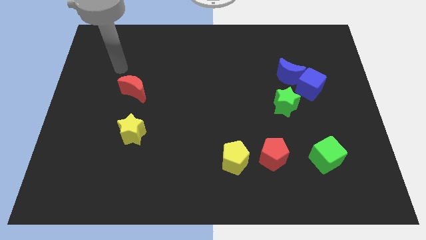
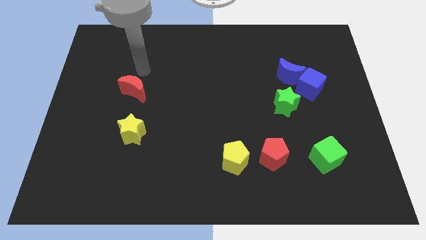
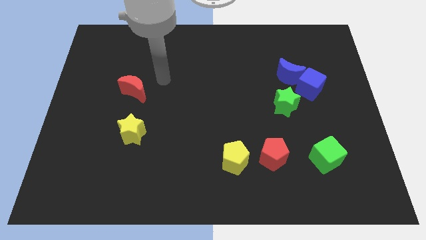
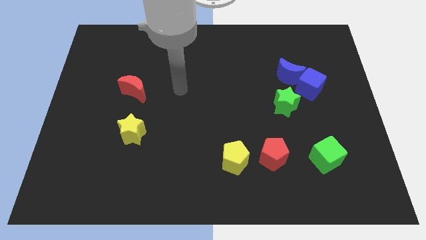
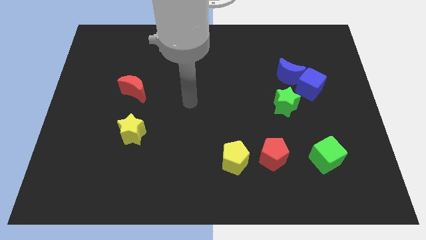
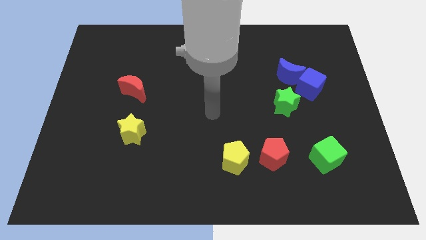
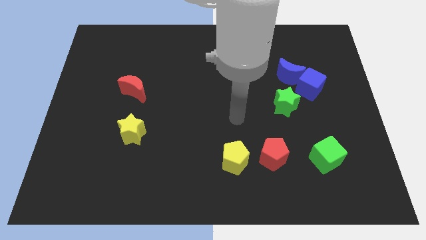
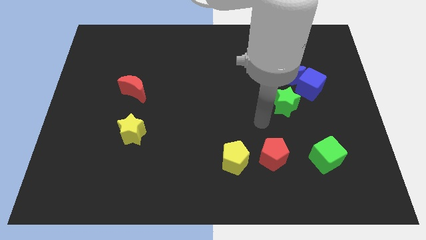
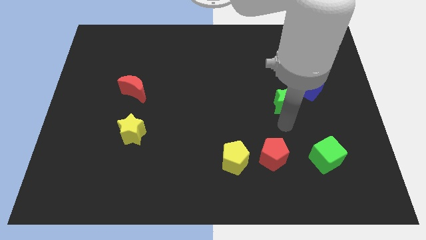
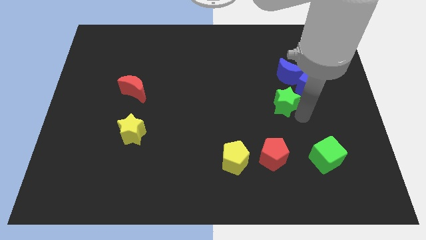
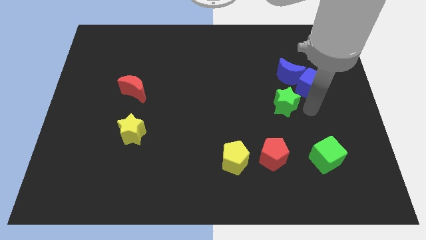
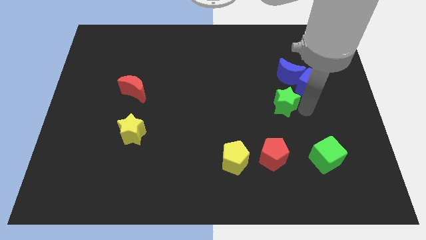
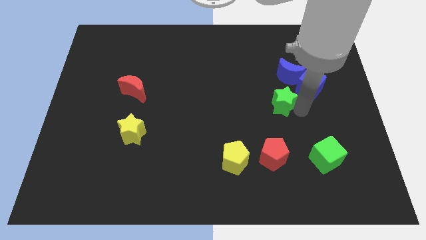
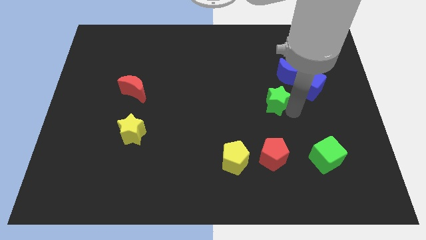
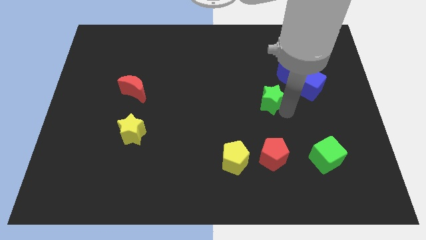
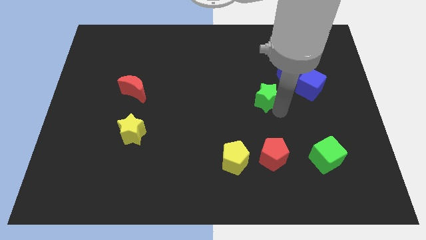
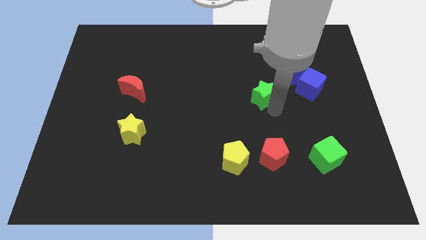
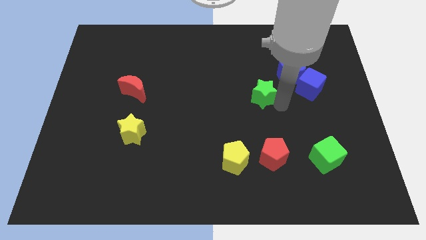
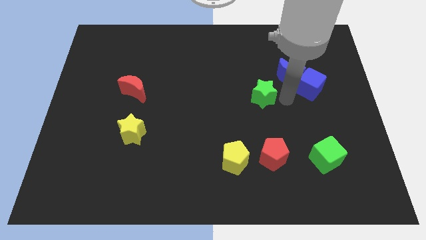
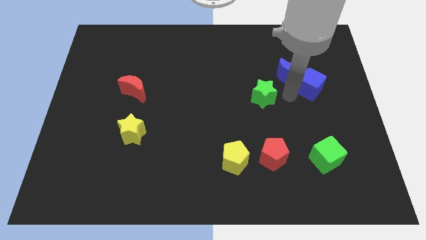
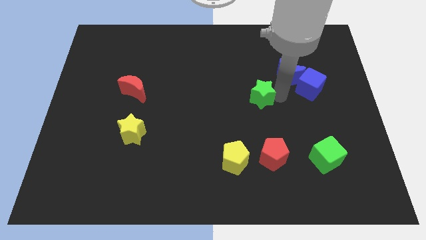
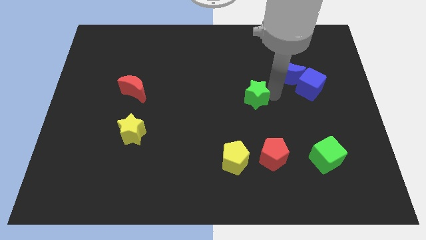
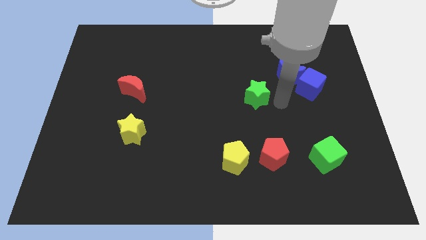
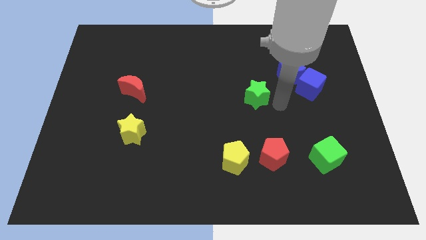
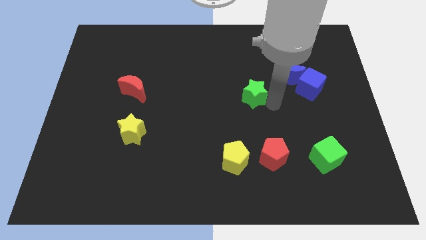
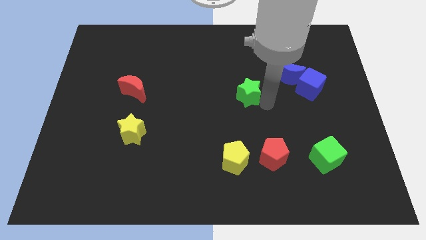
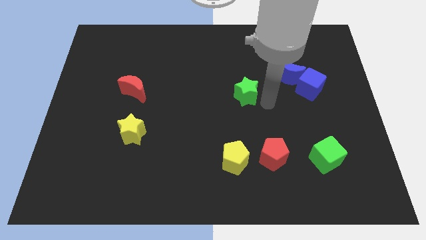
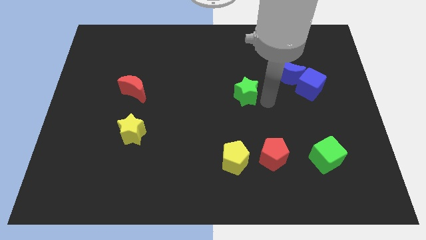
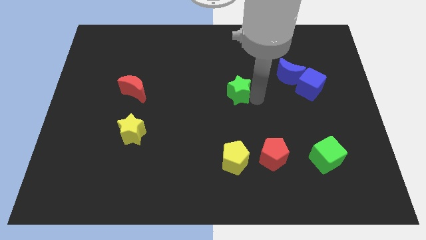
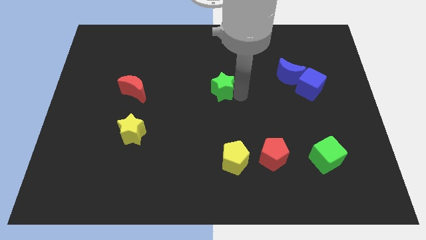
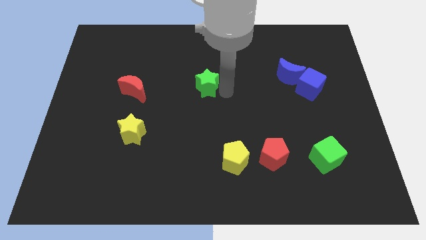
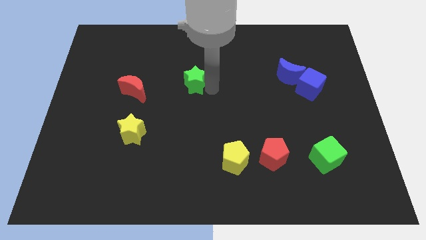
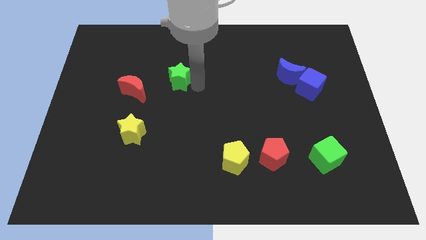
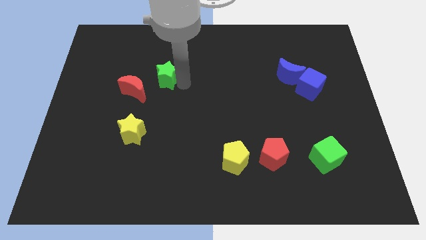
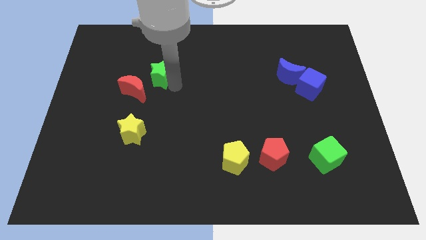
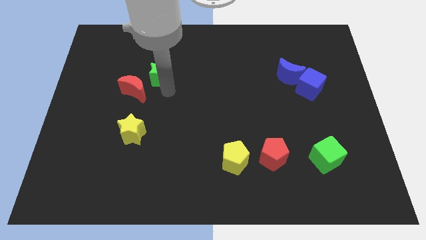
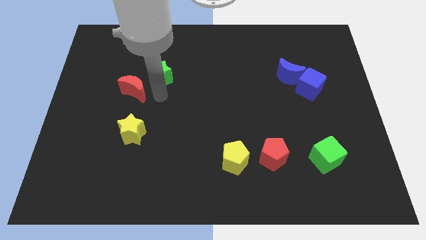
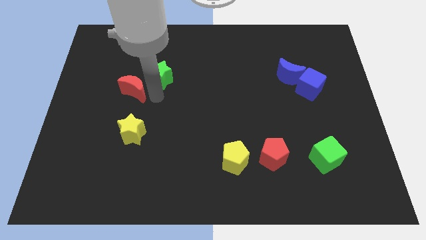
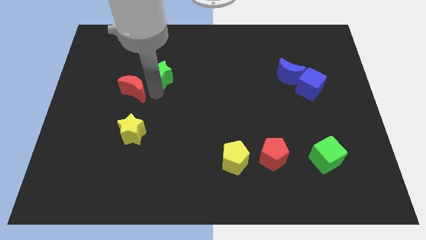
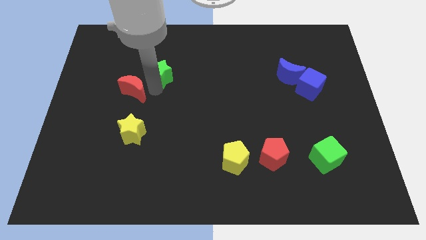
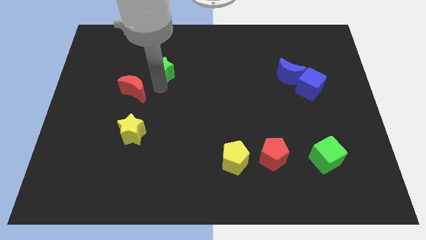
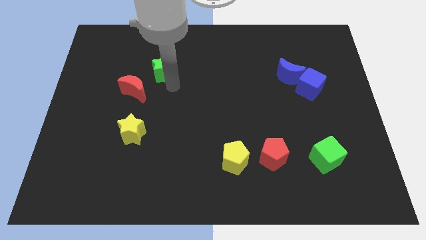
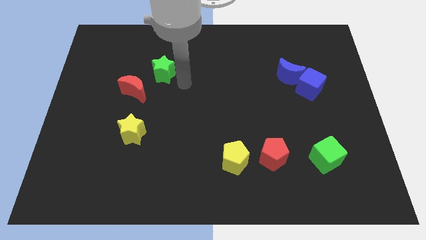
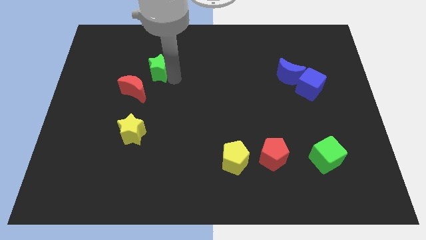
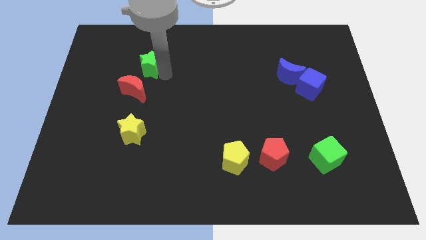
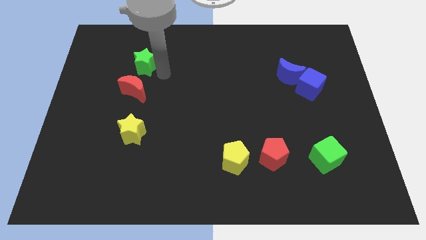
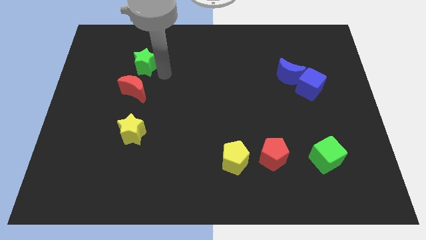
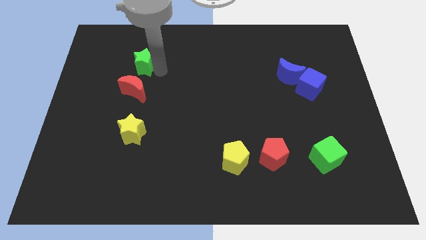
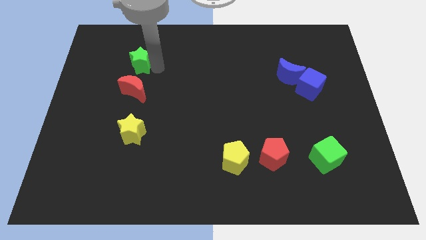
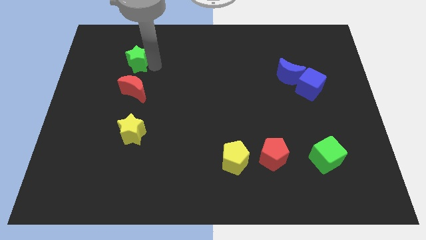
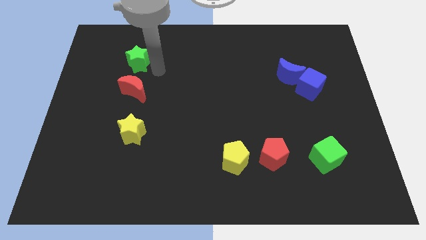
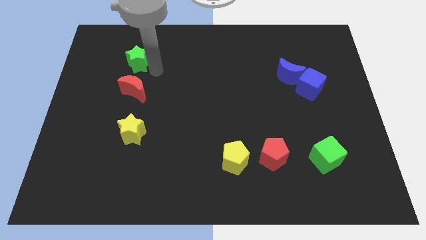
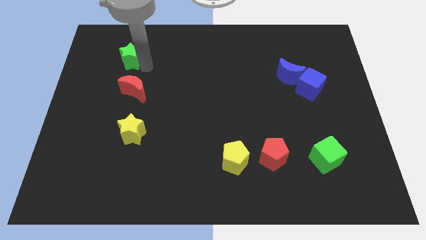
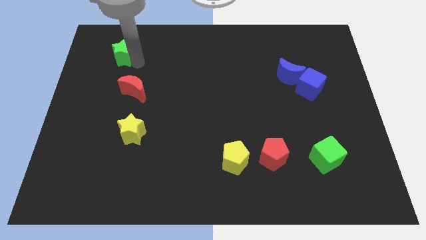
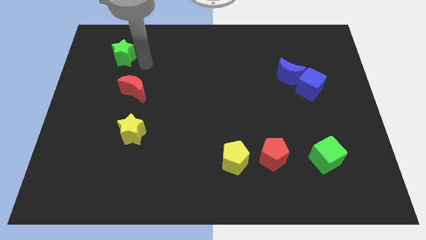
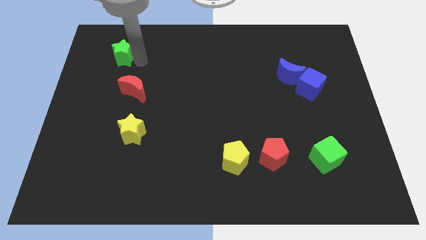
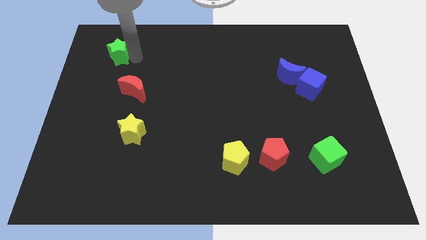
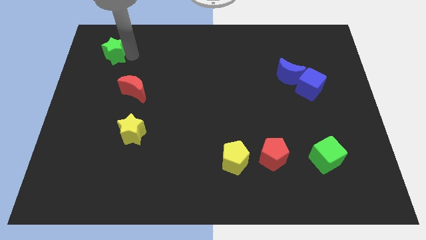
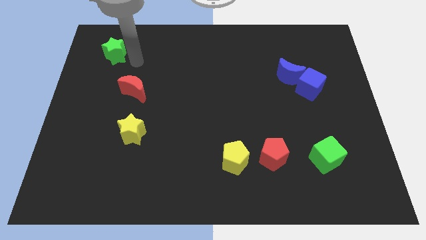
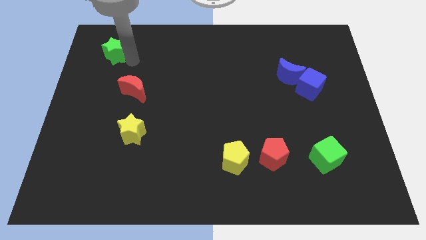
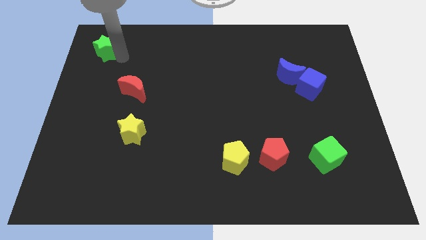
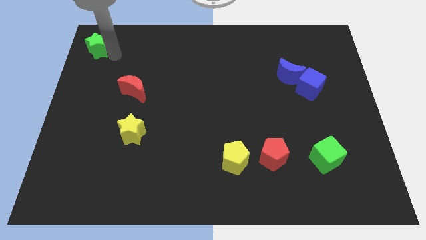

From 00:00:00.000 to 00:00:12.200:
put the green star to the top left of the board

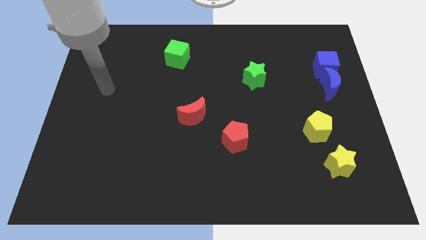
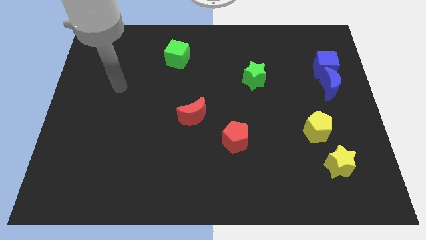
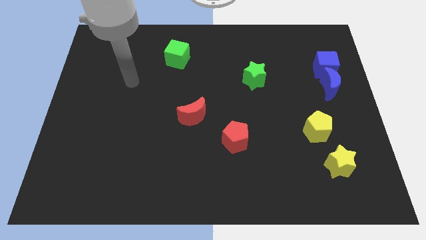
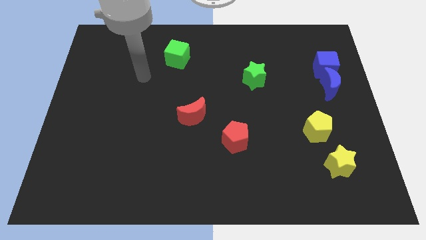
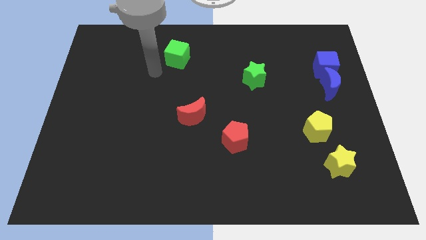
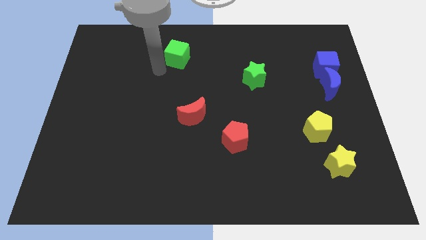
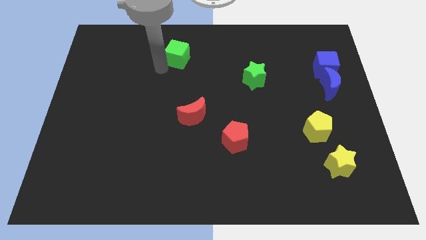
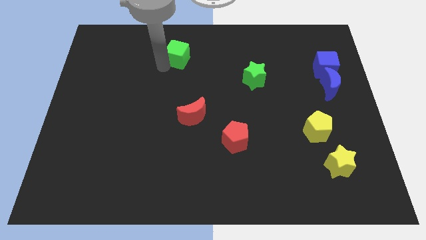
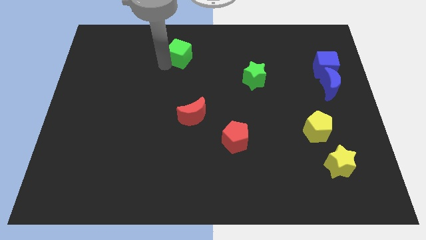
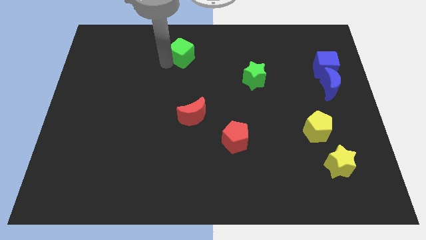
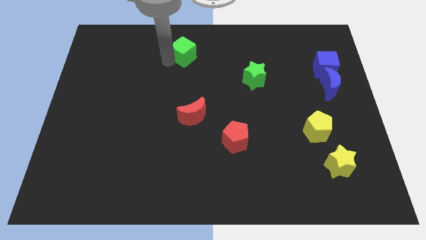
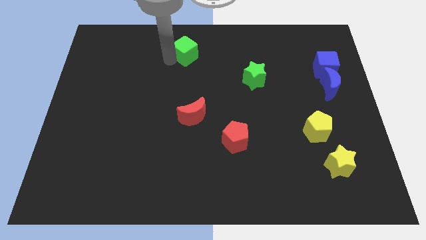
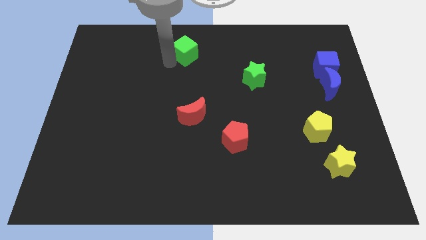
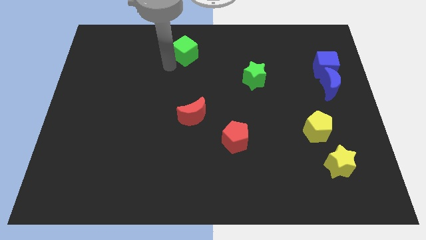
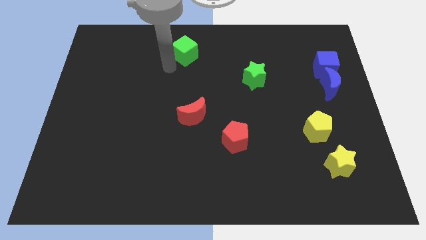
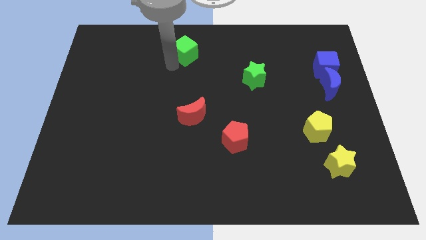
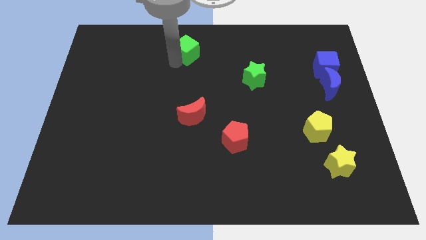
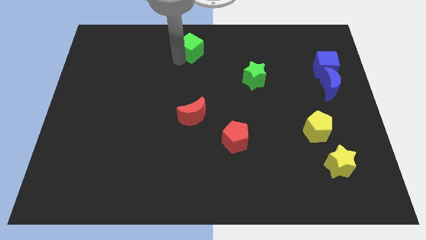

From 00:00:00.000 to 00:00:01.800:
slide the green cube to the towards your base
